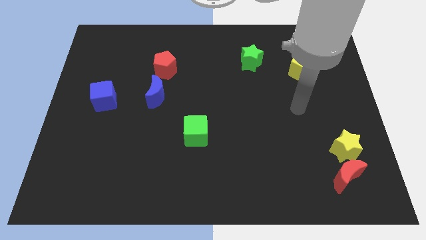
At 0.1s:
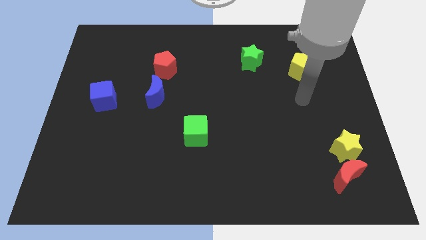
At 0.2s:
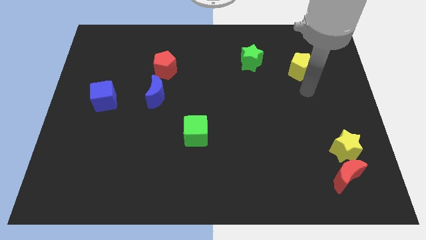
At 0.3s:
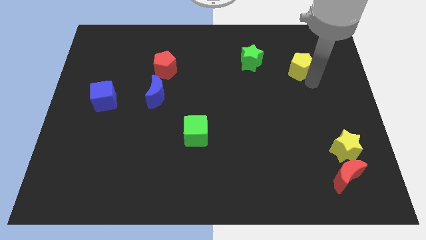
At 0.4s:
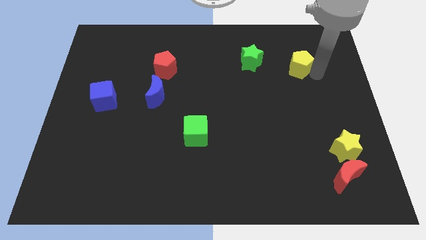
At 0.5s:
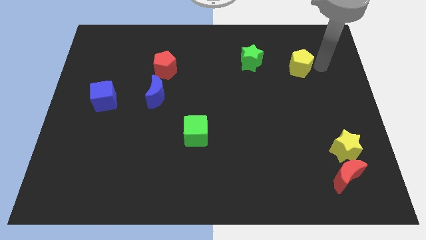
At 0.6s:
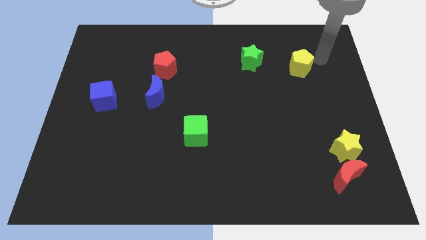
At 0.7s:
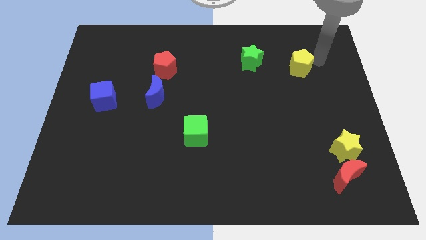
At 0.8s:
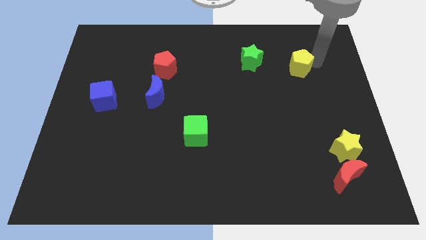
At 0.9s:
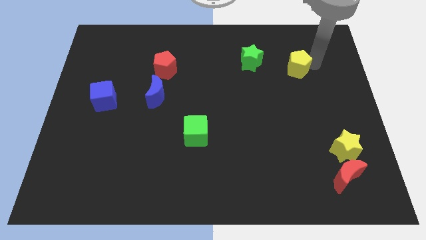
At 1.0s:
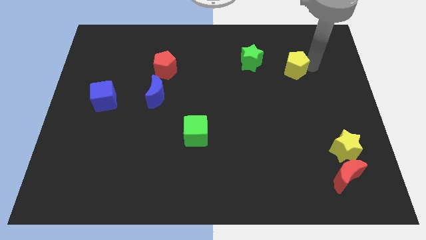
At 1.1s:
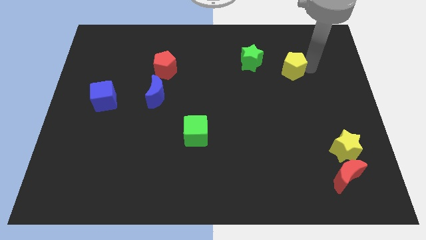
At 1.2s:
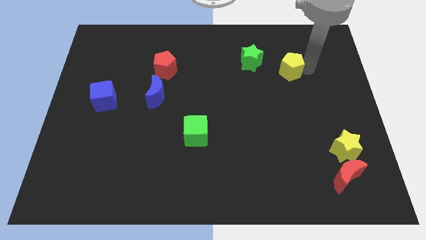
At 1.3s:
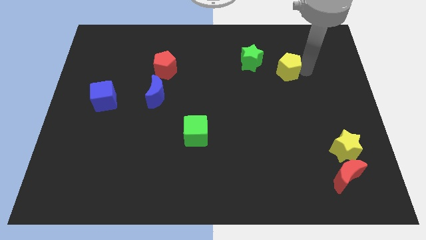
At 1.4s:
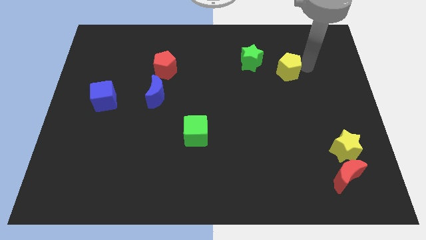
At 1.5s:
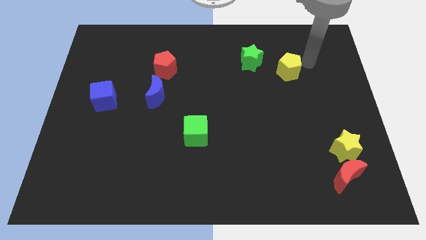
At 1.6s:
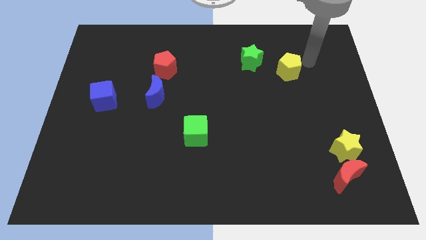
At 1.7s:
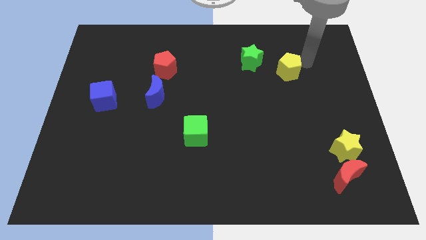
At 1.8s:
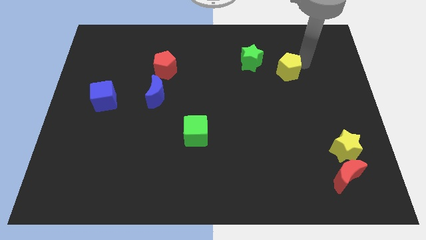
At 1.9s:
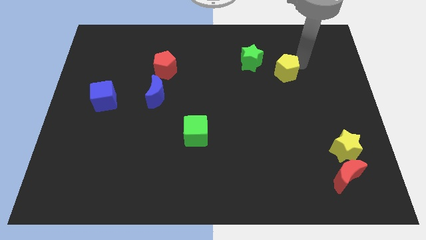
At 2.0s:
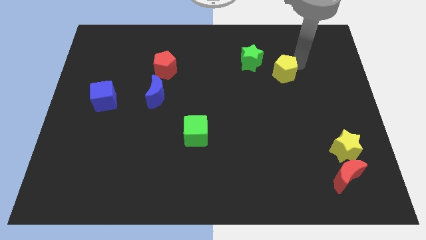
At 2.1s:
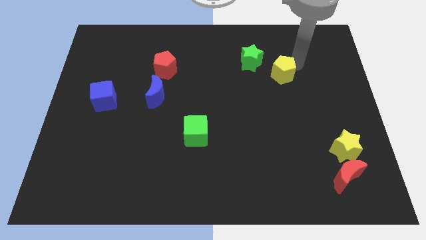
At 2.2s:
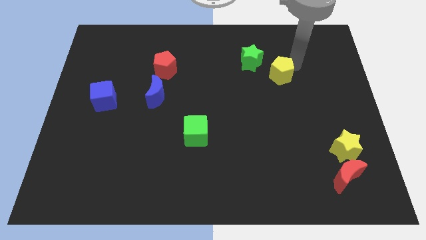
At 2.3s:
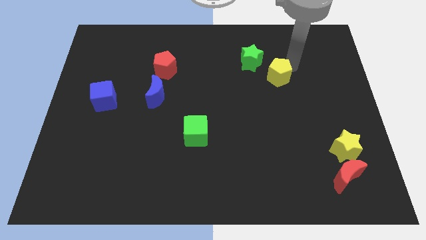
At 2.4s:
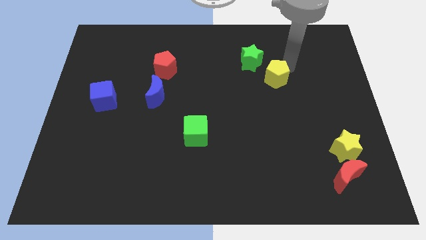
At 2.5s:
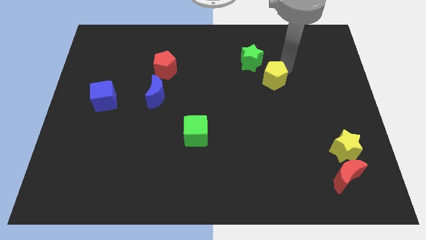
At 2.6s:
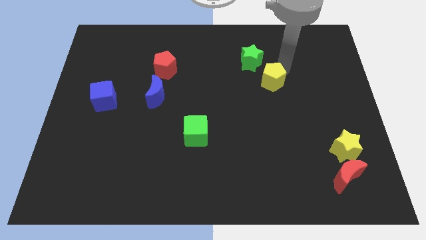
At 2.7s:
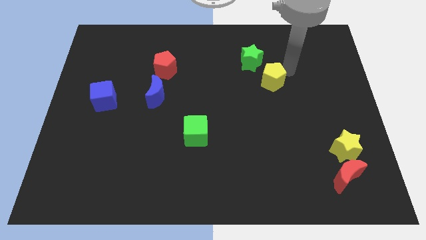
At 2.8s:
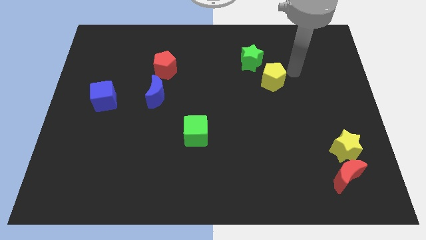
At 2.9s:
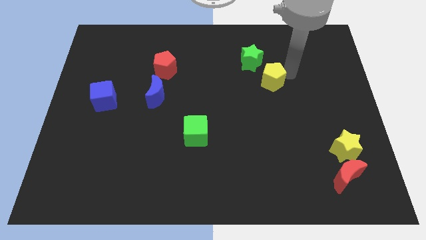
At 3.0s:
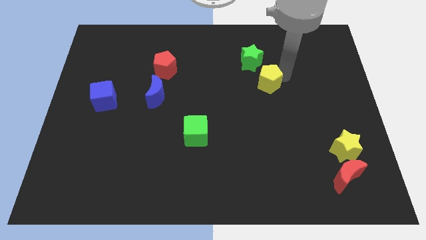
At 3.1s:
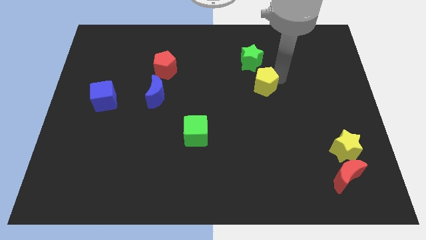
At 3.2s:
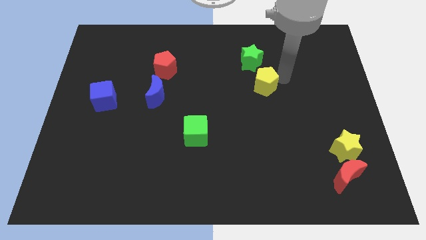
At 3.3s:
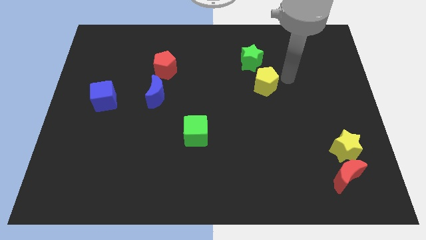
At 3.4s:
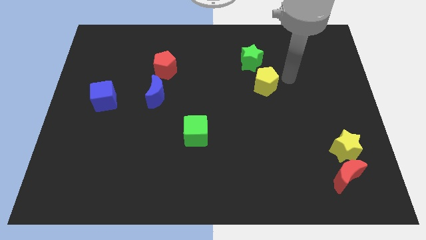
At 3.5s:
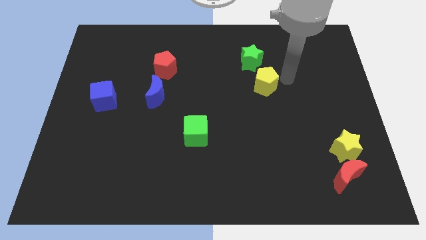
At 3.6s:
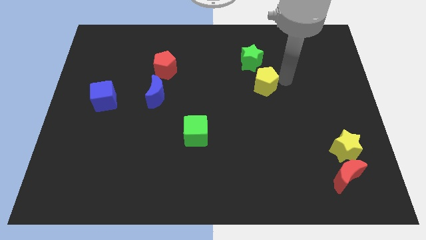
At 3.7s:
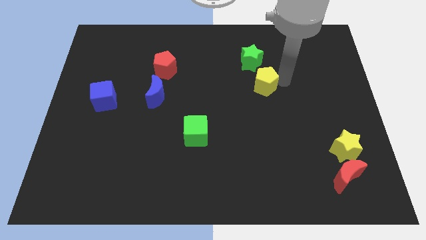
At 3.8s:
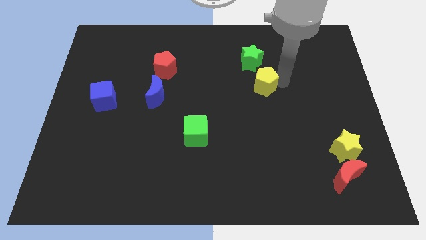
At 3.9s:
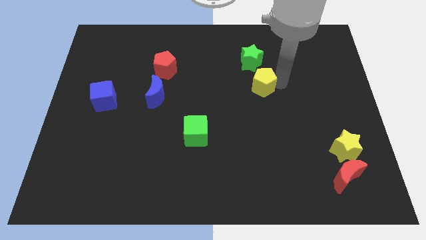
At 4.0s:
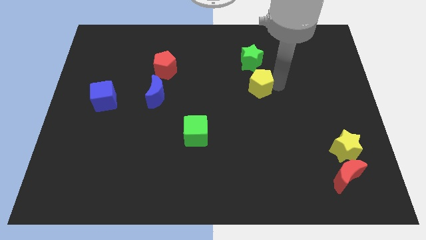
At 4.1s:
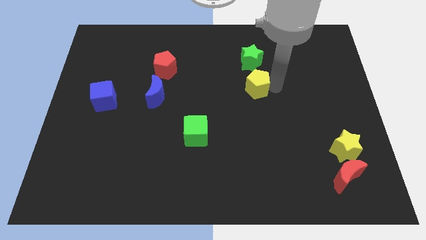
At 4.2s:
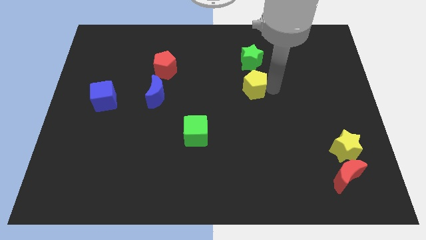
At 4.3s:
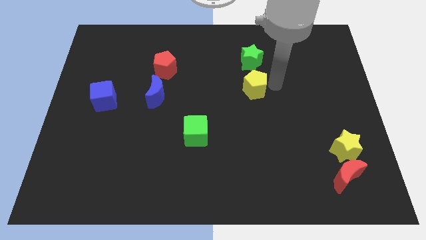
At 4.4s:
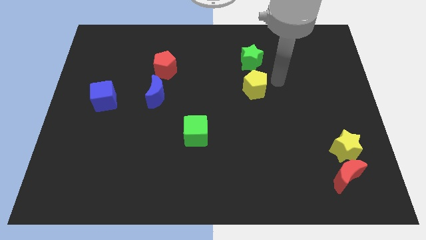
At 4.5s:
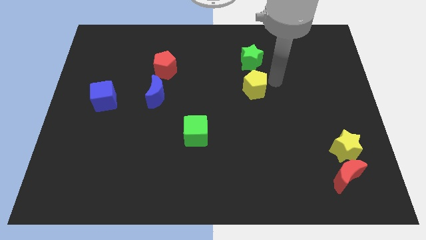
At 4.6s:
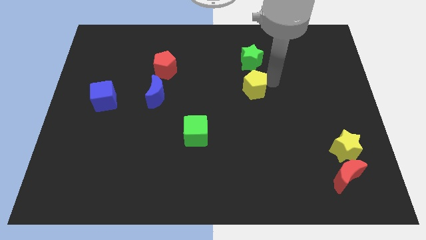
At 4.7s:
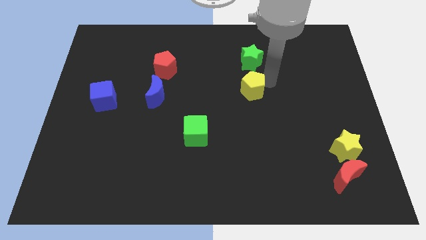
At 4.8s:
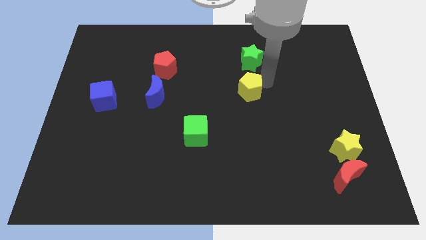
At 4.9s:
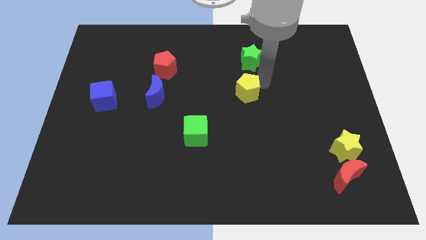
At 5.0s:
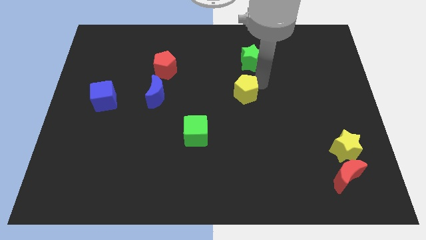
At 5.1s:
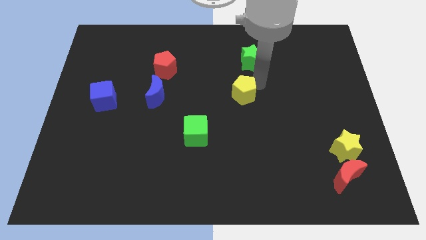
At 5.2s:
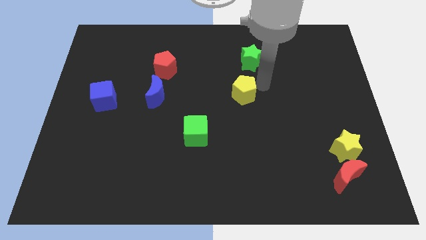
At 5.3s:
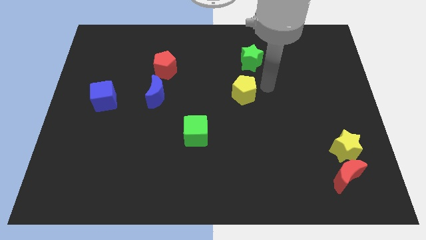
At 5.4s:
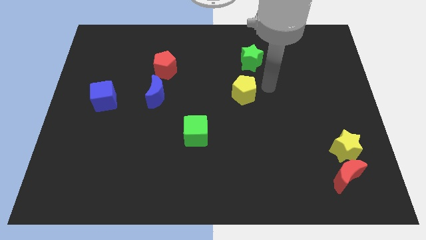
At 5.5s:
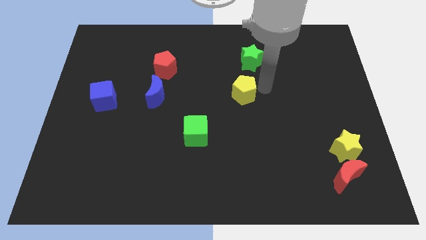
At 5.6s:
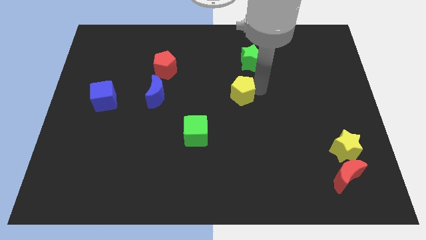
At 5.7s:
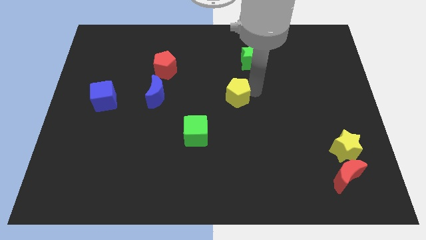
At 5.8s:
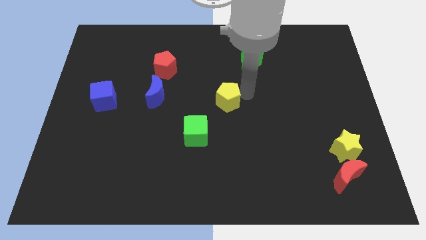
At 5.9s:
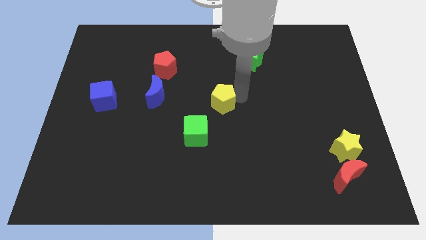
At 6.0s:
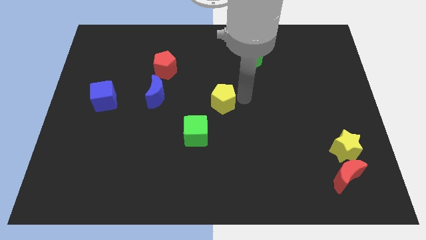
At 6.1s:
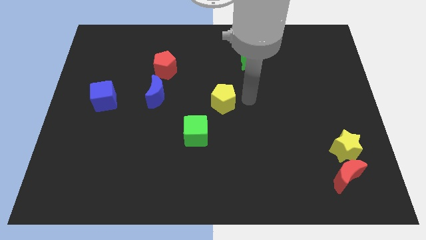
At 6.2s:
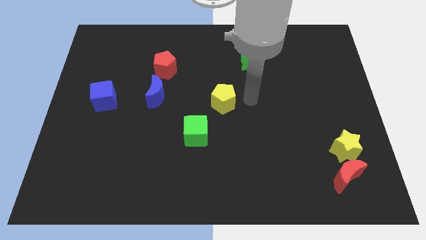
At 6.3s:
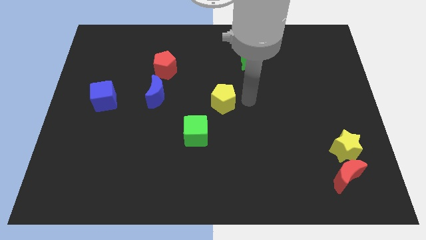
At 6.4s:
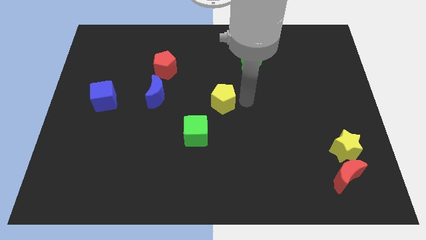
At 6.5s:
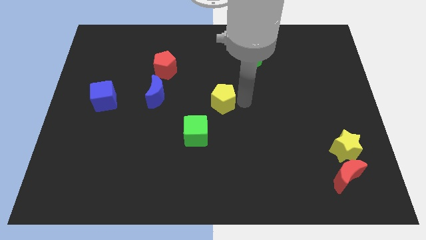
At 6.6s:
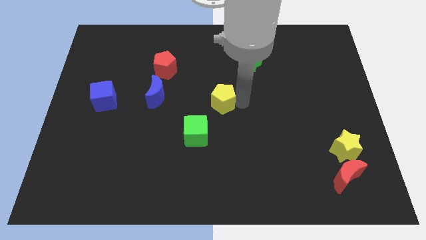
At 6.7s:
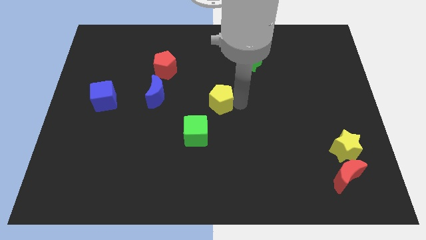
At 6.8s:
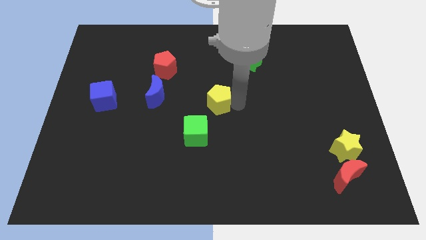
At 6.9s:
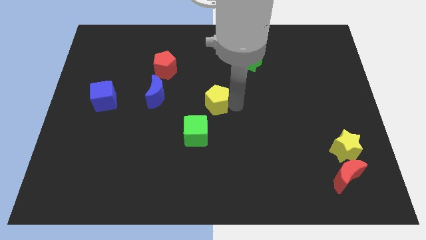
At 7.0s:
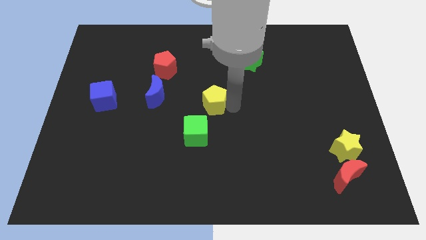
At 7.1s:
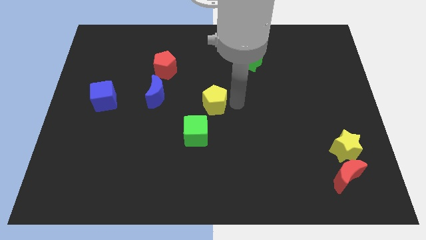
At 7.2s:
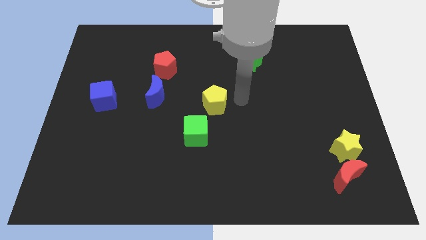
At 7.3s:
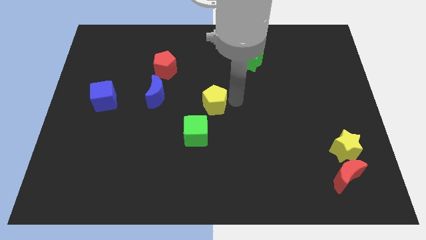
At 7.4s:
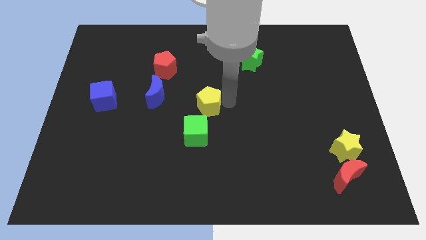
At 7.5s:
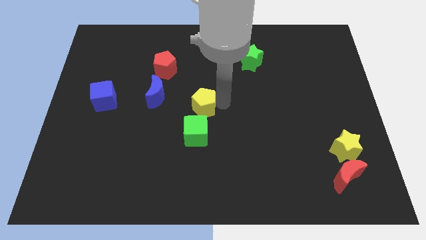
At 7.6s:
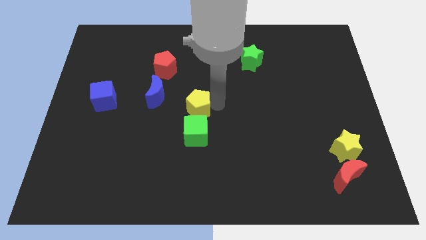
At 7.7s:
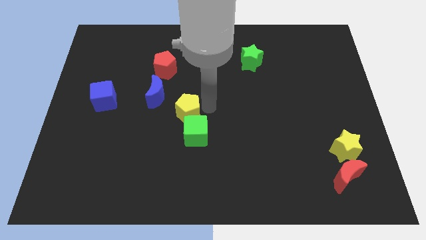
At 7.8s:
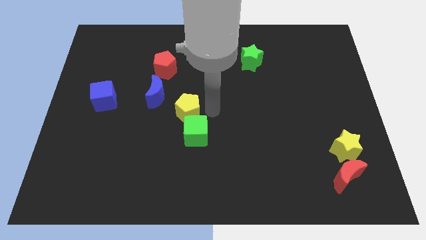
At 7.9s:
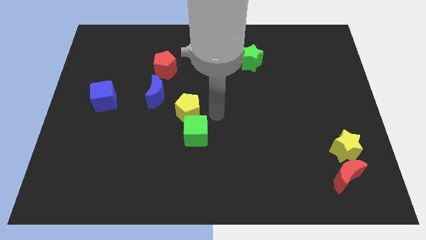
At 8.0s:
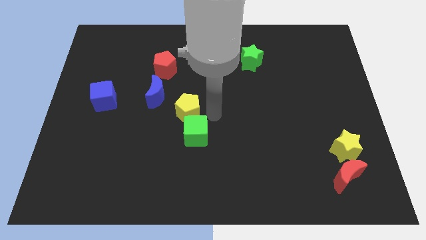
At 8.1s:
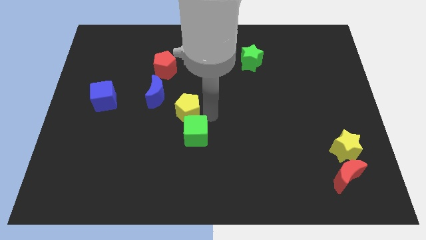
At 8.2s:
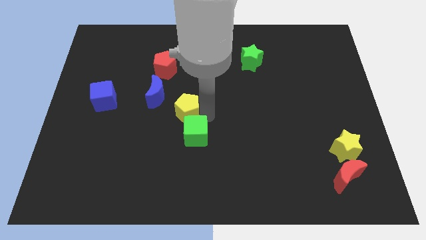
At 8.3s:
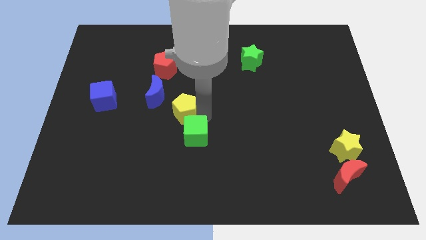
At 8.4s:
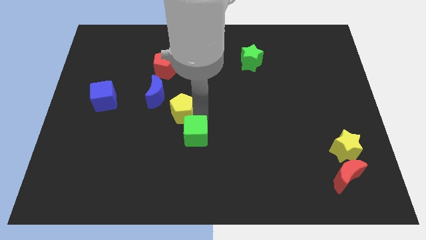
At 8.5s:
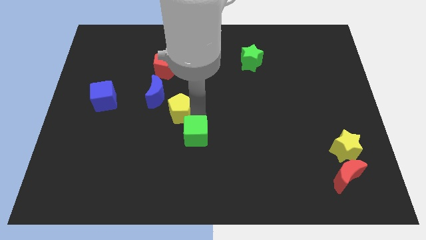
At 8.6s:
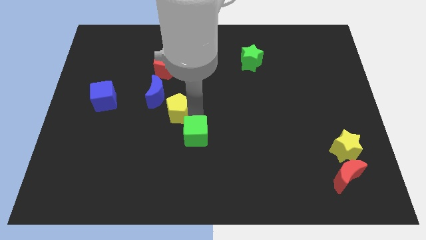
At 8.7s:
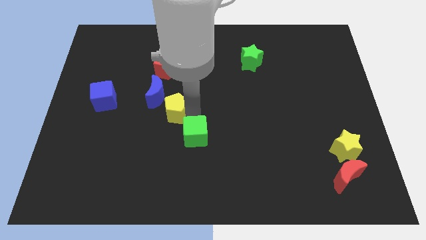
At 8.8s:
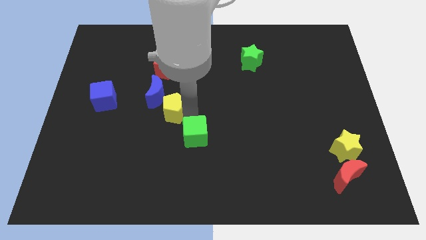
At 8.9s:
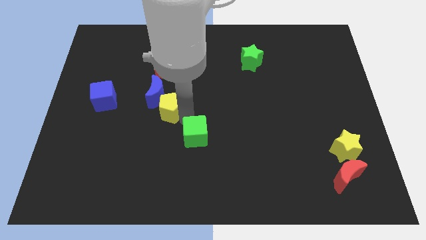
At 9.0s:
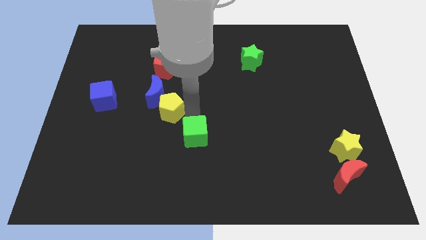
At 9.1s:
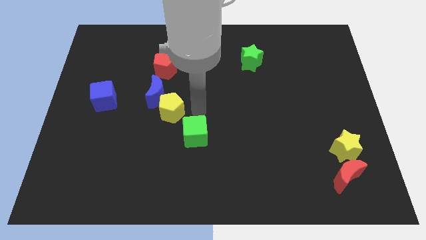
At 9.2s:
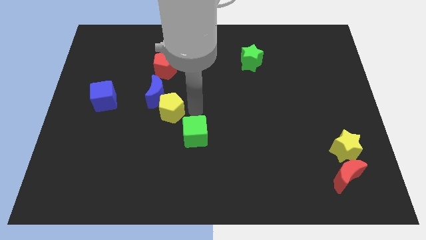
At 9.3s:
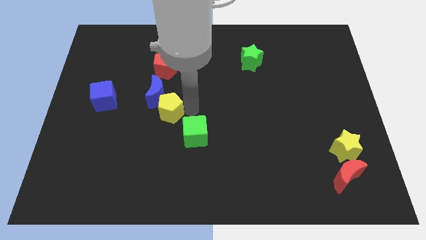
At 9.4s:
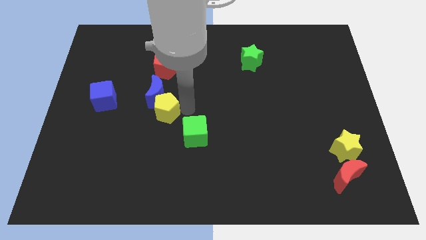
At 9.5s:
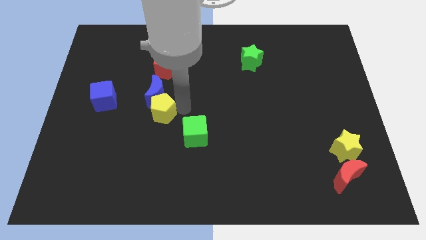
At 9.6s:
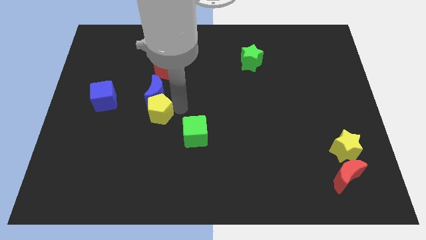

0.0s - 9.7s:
move the yellow pentagon to the bottom left side of the blue moon
